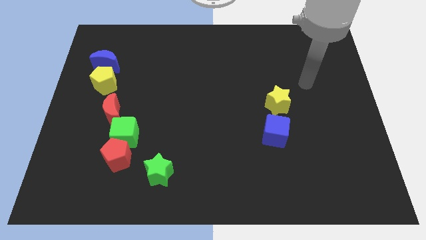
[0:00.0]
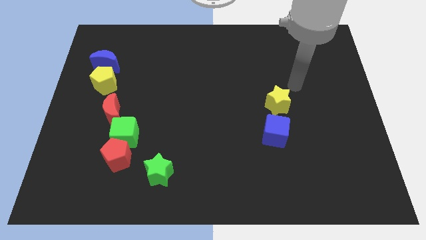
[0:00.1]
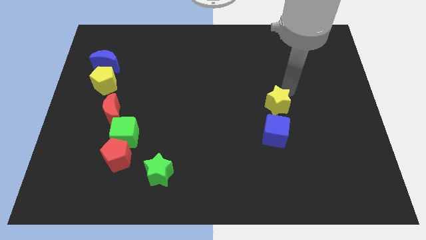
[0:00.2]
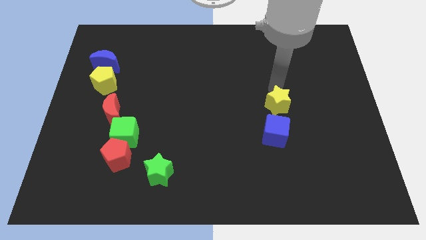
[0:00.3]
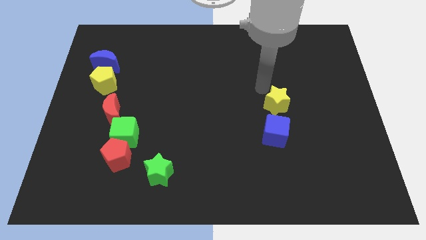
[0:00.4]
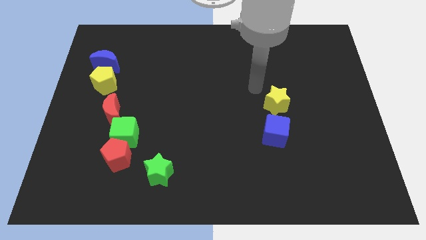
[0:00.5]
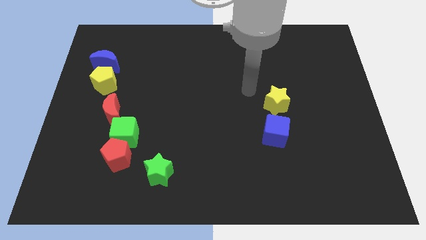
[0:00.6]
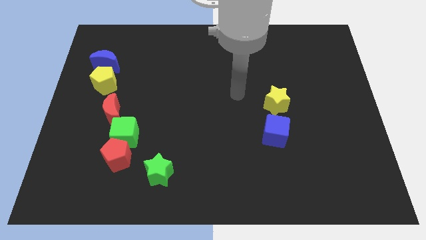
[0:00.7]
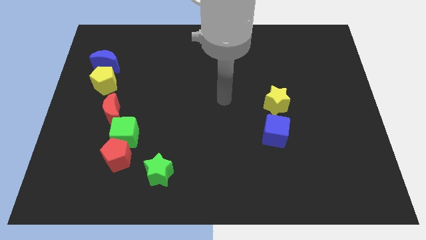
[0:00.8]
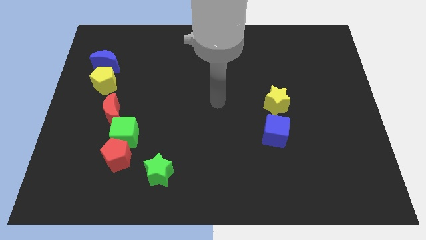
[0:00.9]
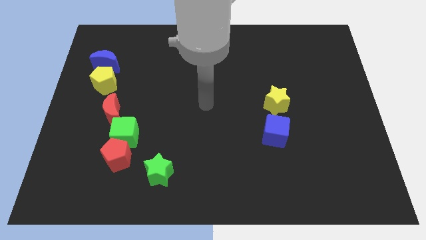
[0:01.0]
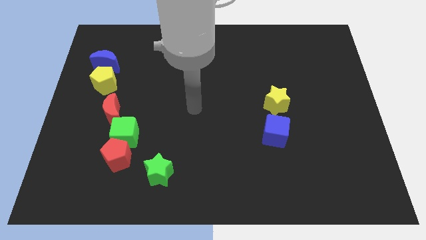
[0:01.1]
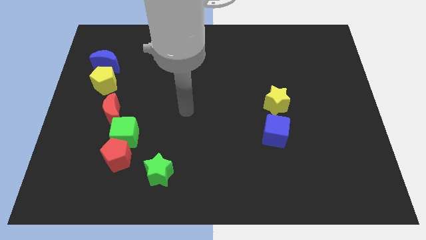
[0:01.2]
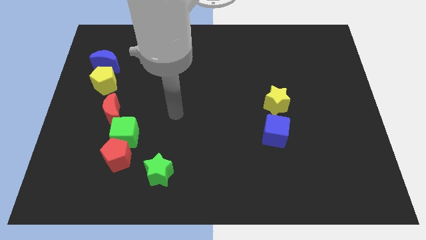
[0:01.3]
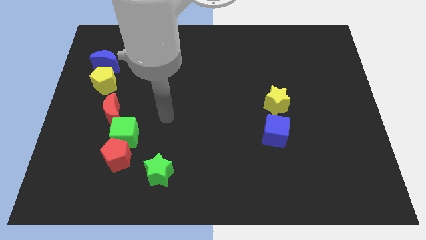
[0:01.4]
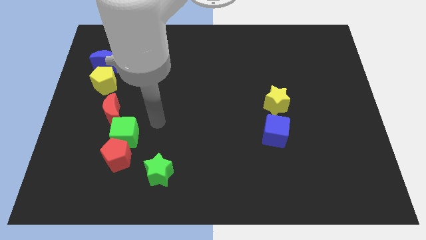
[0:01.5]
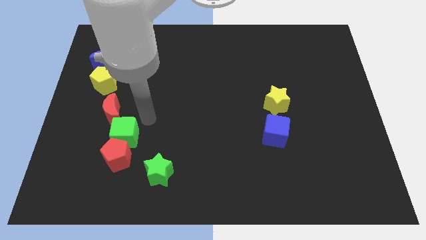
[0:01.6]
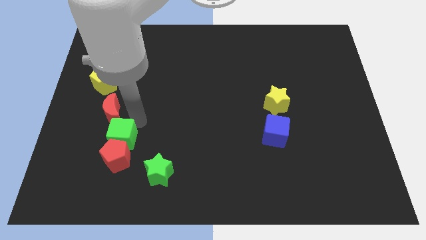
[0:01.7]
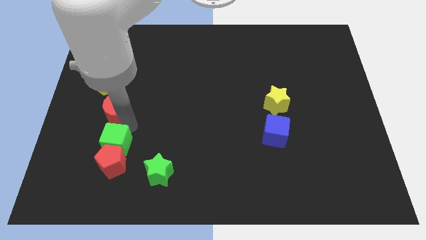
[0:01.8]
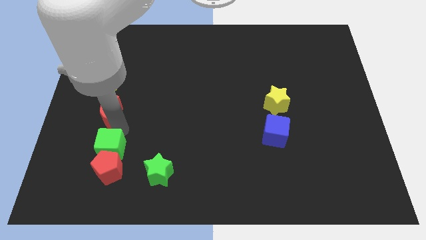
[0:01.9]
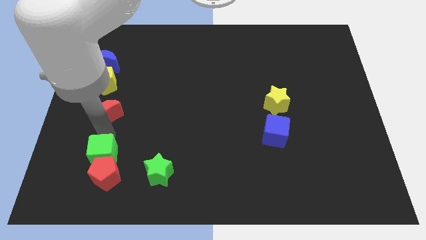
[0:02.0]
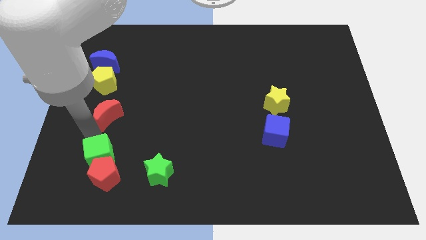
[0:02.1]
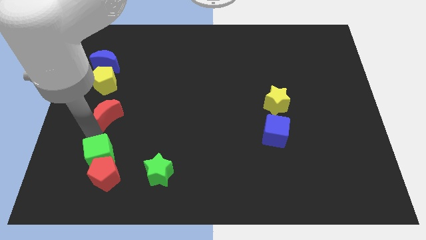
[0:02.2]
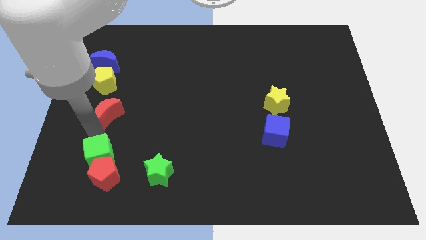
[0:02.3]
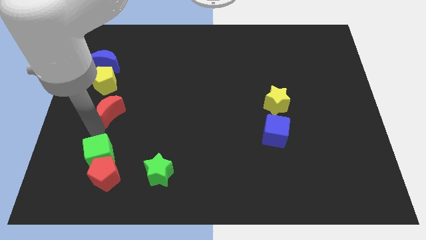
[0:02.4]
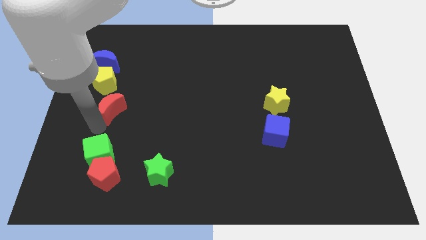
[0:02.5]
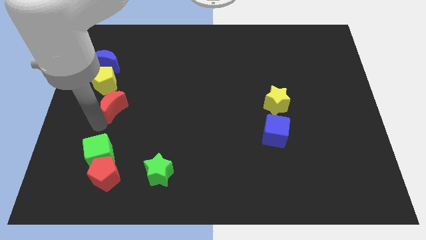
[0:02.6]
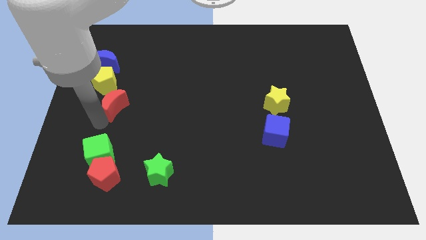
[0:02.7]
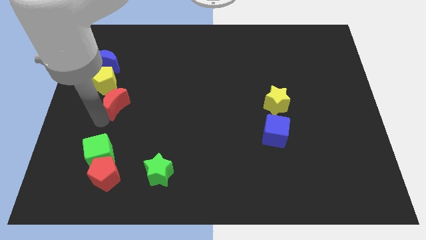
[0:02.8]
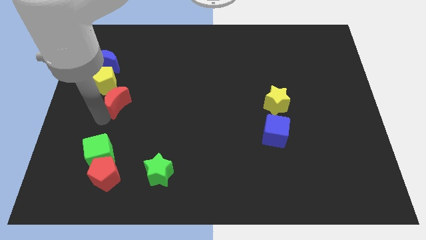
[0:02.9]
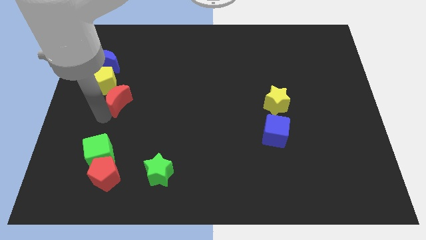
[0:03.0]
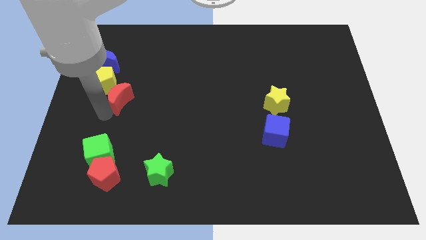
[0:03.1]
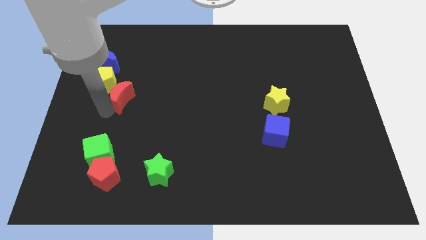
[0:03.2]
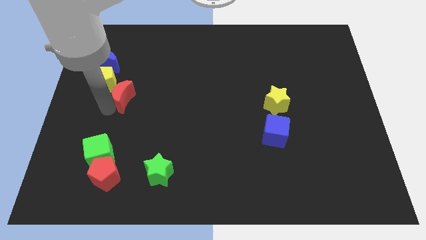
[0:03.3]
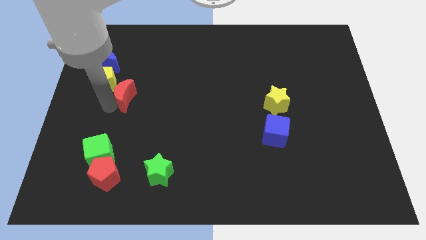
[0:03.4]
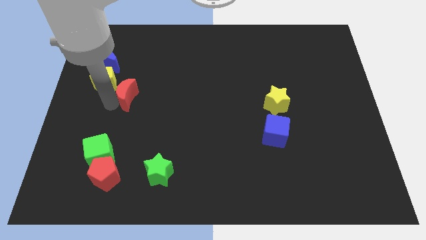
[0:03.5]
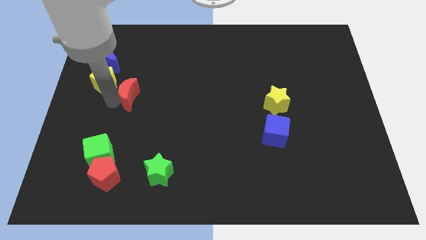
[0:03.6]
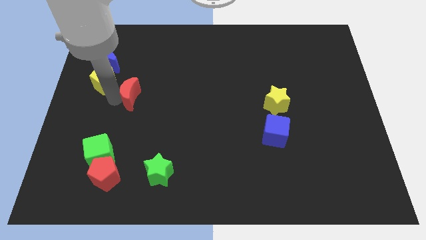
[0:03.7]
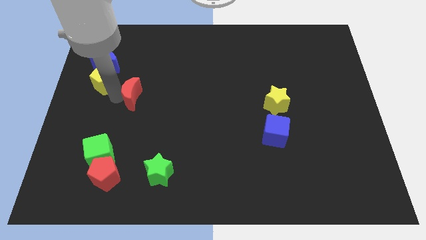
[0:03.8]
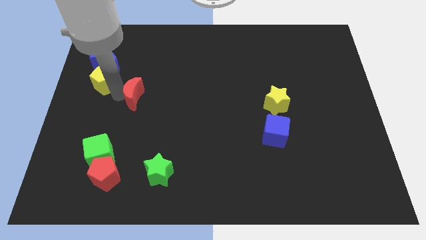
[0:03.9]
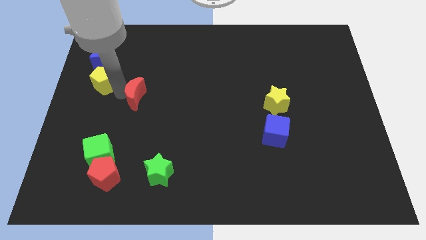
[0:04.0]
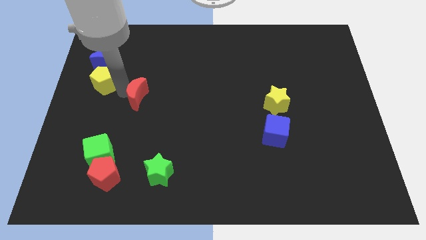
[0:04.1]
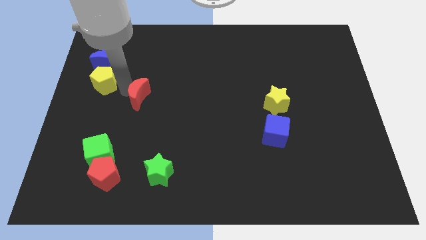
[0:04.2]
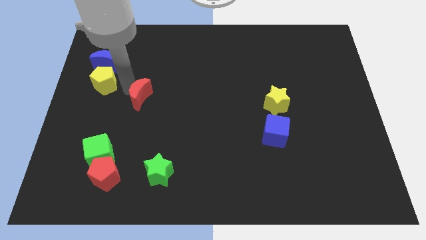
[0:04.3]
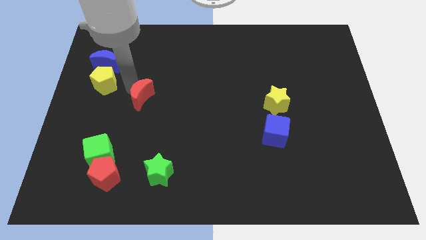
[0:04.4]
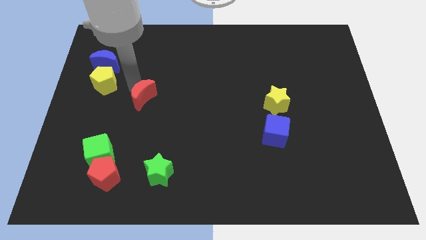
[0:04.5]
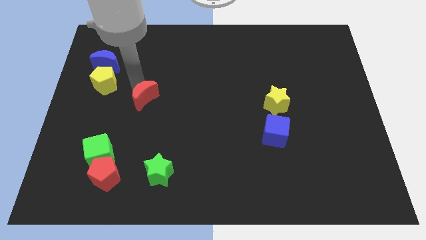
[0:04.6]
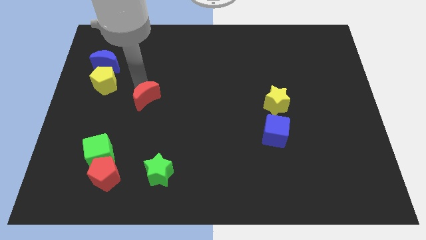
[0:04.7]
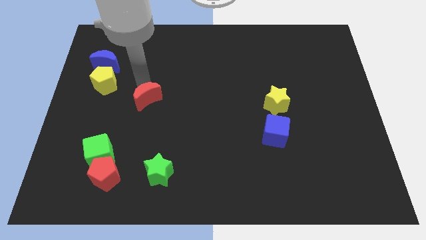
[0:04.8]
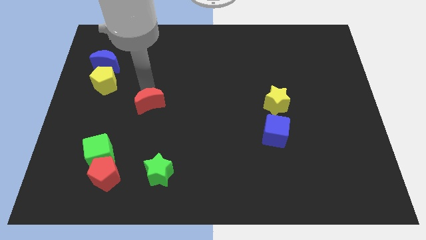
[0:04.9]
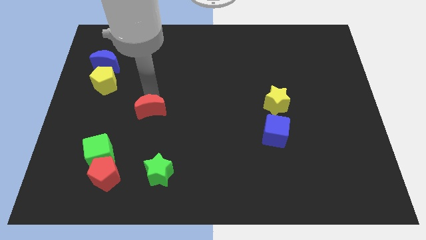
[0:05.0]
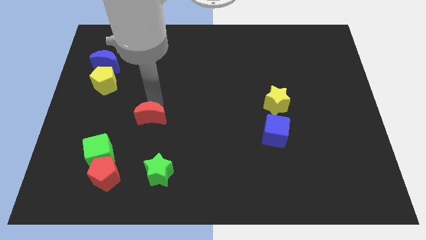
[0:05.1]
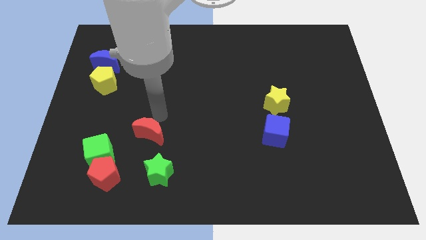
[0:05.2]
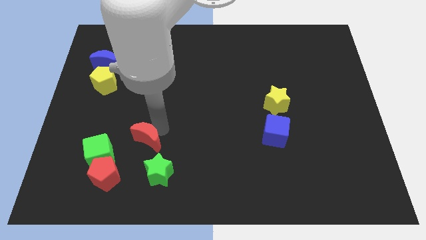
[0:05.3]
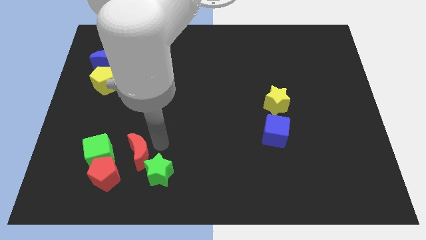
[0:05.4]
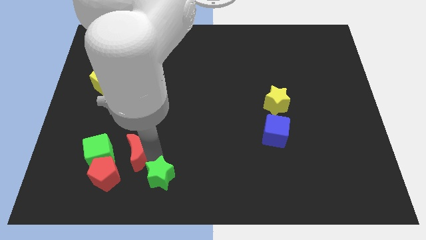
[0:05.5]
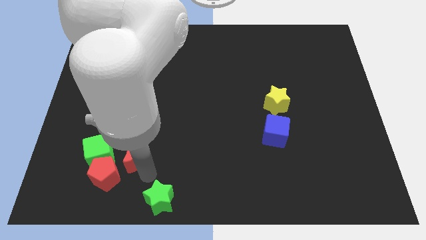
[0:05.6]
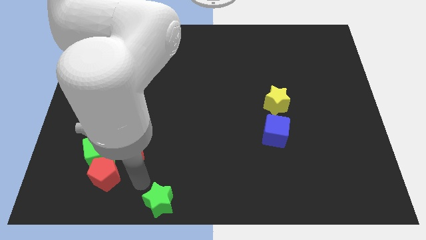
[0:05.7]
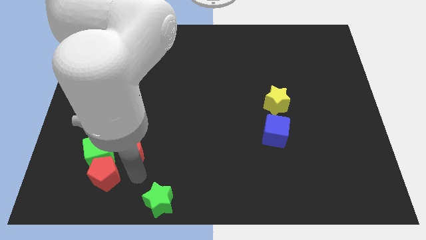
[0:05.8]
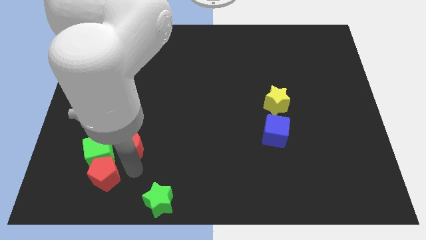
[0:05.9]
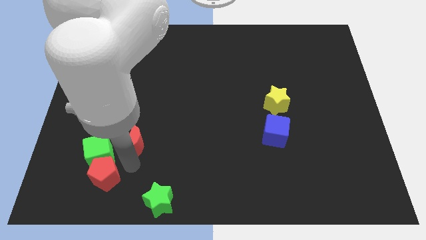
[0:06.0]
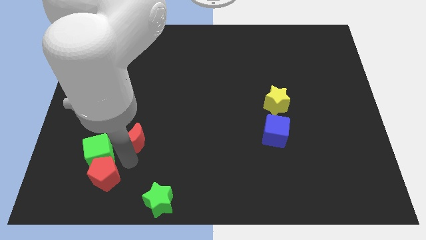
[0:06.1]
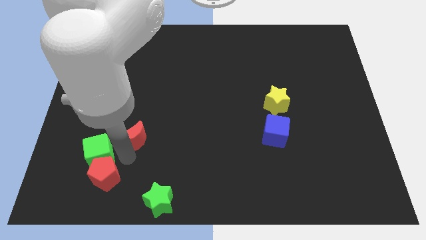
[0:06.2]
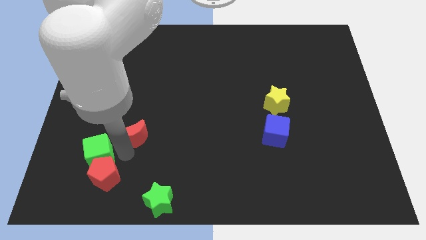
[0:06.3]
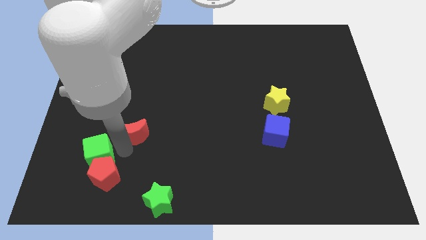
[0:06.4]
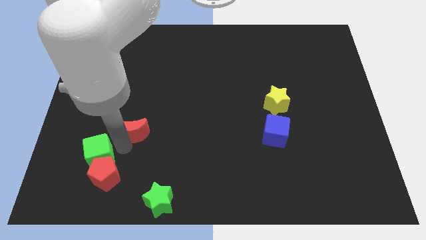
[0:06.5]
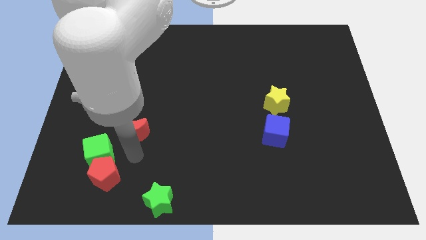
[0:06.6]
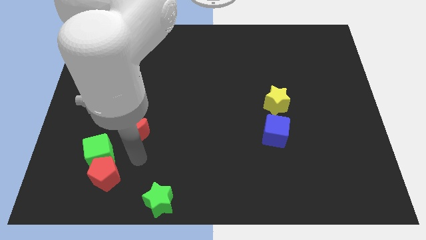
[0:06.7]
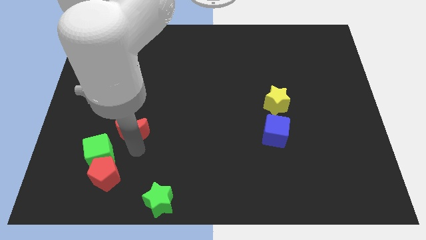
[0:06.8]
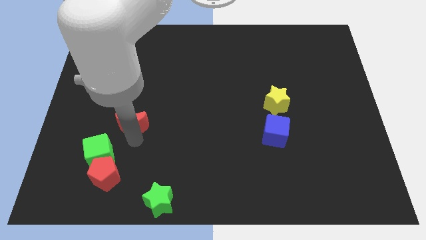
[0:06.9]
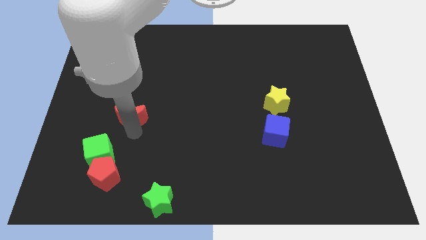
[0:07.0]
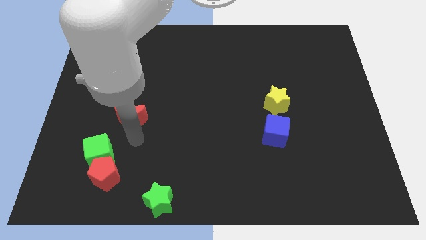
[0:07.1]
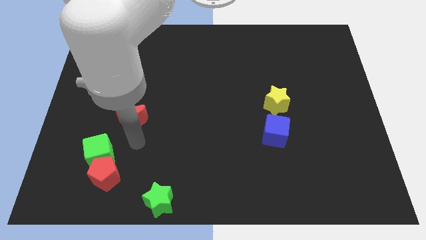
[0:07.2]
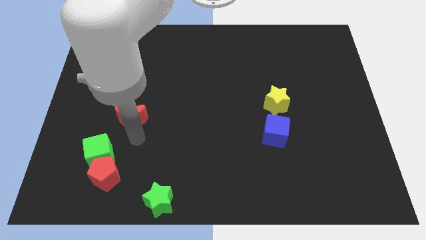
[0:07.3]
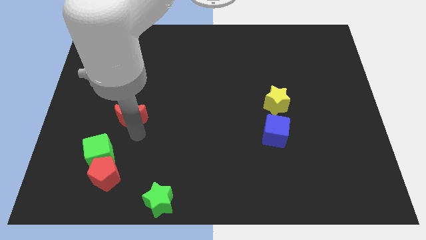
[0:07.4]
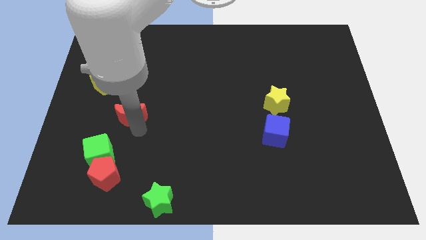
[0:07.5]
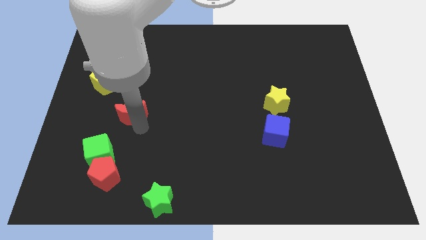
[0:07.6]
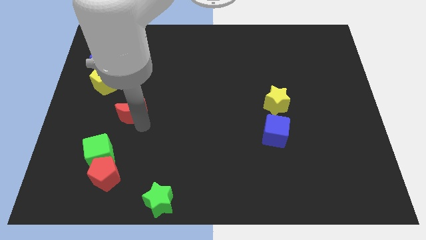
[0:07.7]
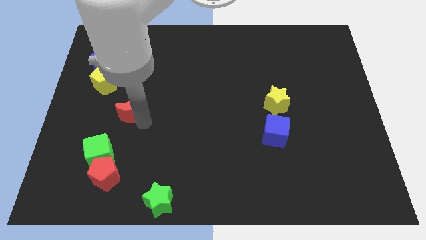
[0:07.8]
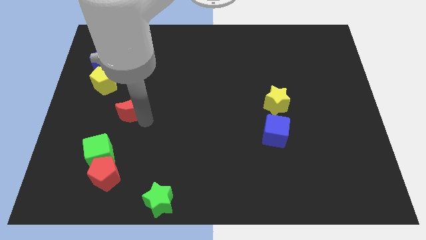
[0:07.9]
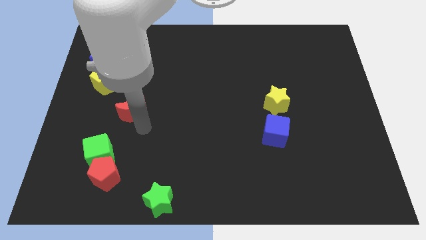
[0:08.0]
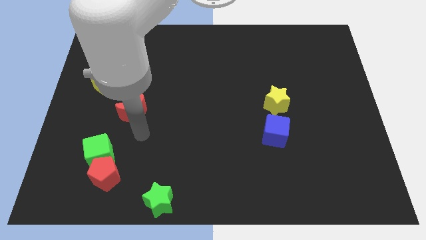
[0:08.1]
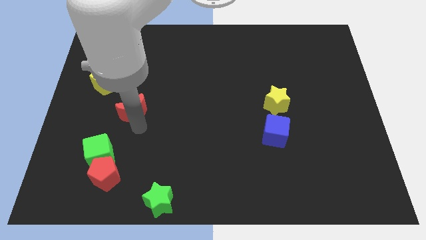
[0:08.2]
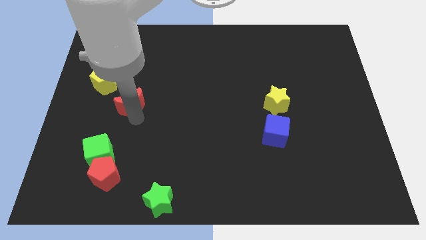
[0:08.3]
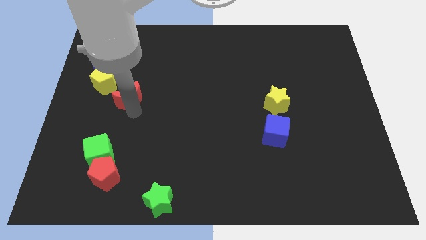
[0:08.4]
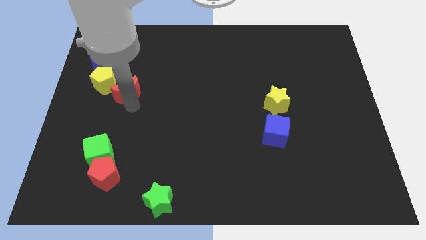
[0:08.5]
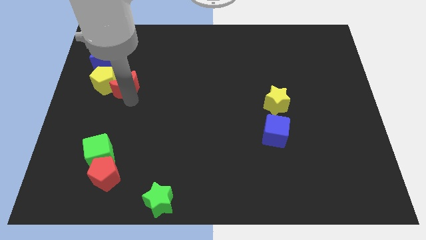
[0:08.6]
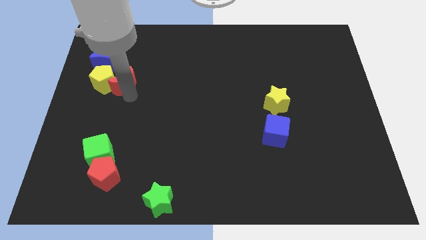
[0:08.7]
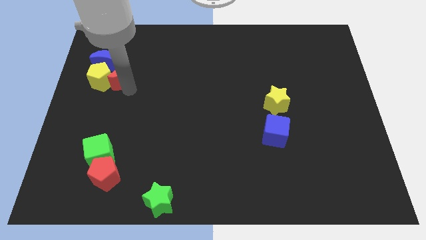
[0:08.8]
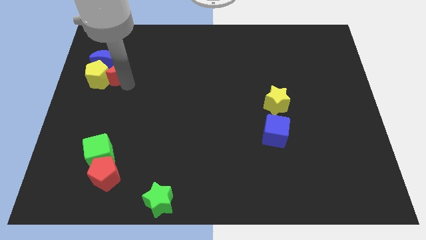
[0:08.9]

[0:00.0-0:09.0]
push the red moon next to the blue moon
